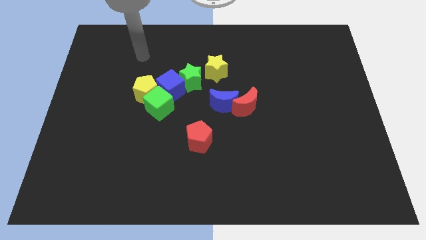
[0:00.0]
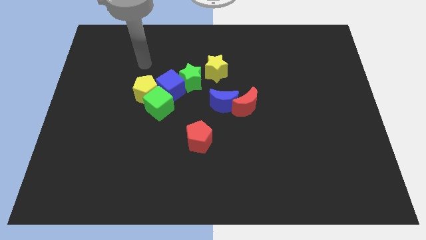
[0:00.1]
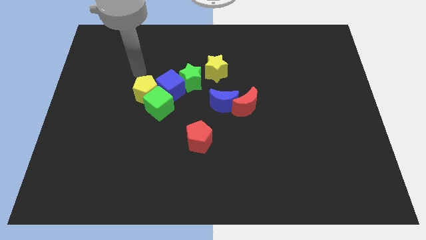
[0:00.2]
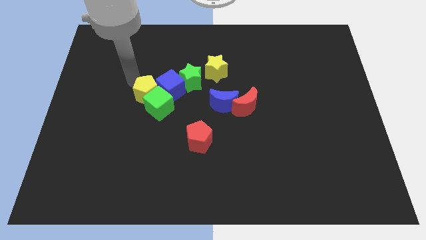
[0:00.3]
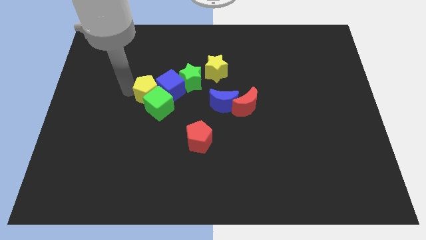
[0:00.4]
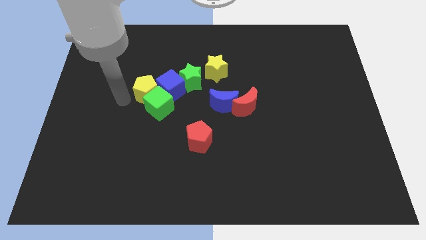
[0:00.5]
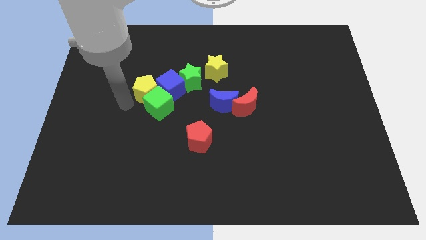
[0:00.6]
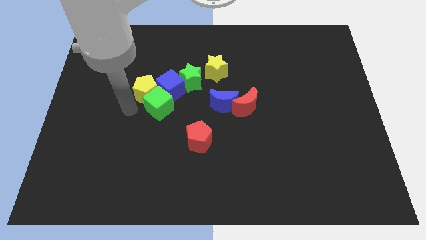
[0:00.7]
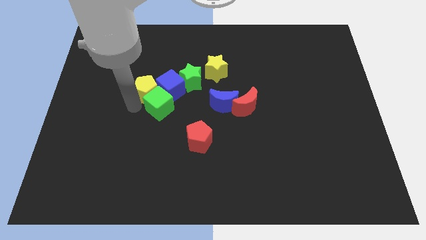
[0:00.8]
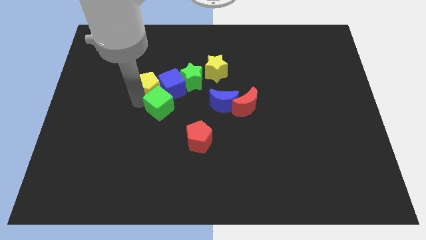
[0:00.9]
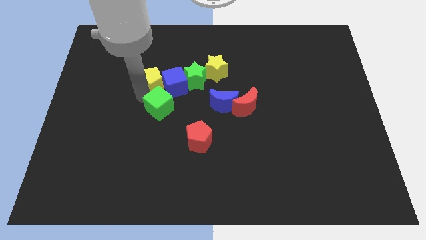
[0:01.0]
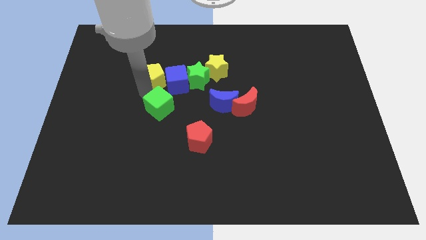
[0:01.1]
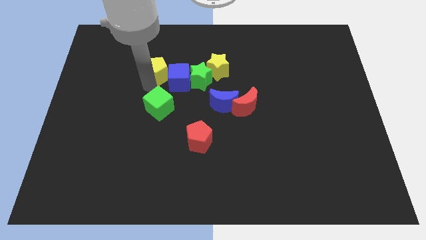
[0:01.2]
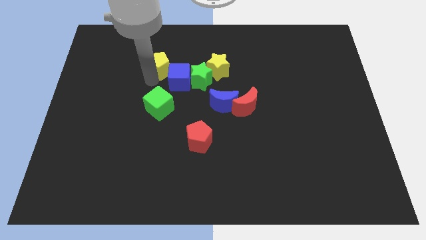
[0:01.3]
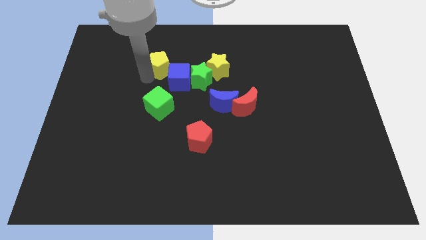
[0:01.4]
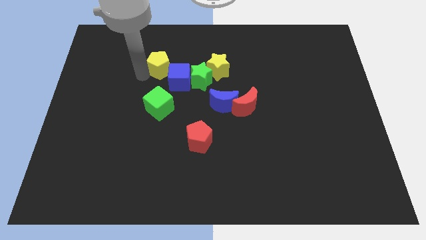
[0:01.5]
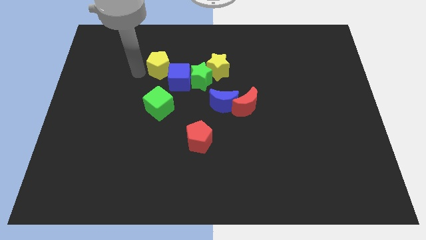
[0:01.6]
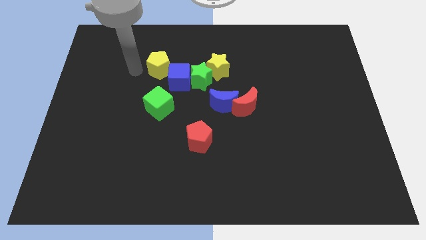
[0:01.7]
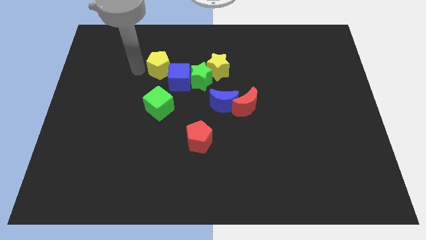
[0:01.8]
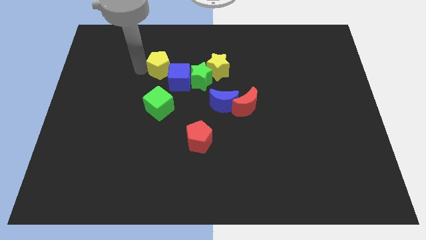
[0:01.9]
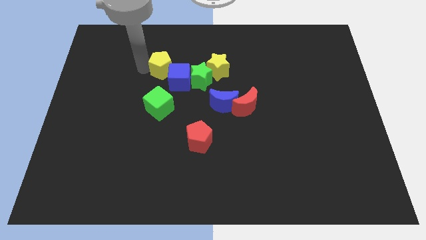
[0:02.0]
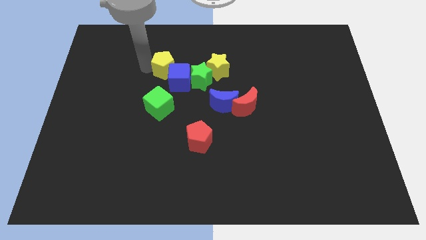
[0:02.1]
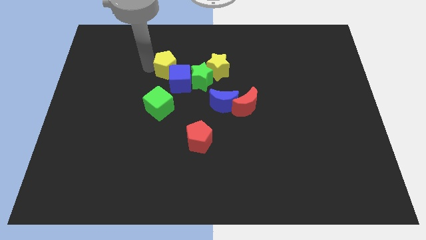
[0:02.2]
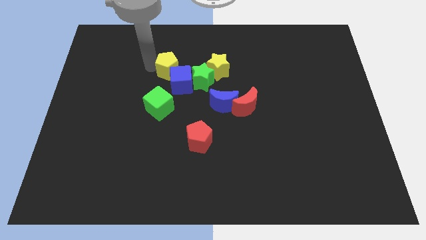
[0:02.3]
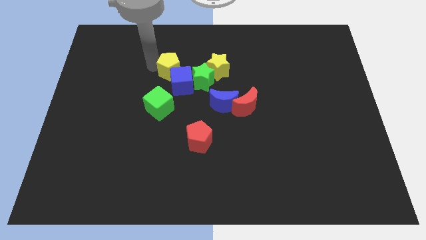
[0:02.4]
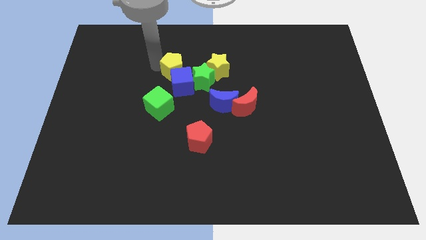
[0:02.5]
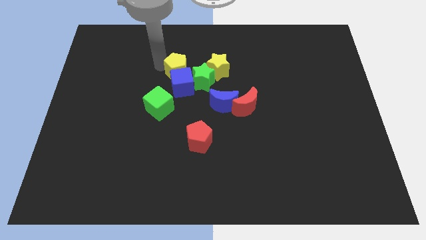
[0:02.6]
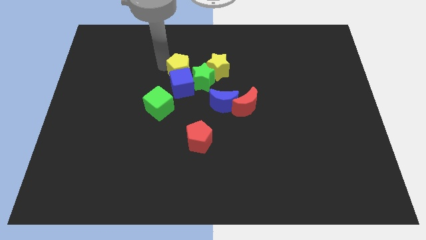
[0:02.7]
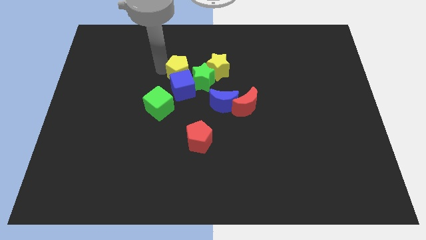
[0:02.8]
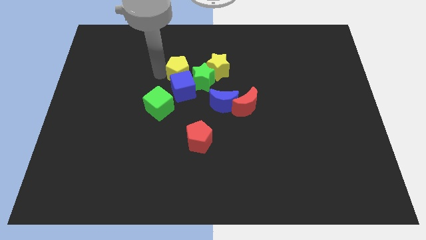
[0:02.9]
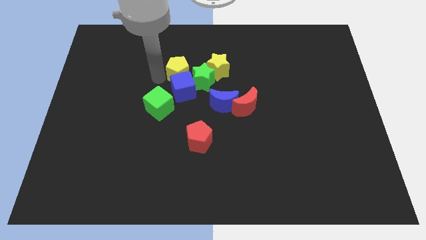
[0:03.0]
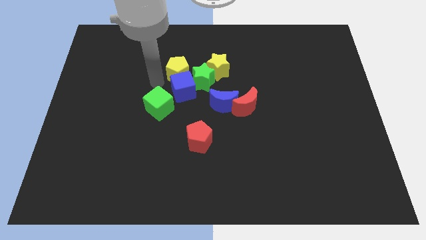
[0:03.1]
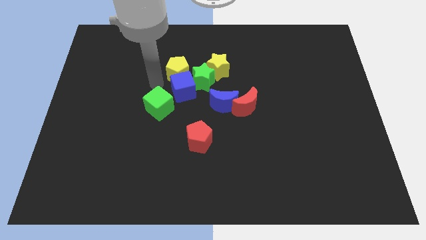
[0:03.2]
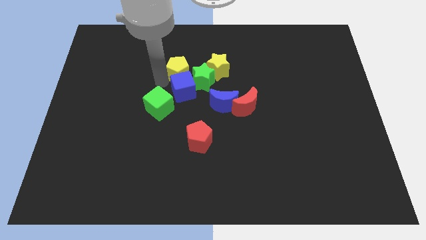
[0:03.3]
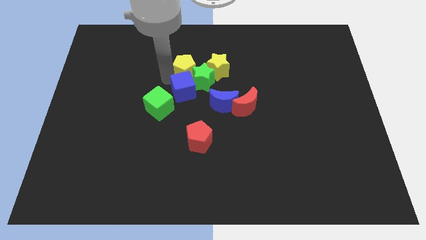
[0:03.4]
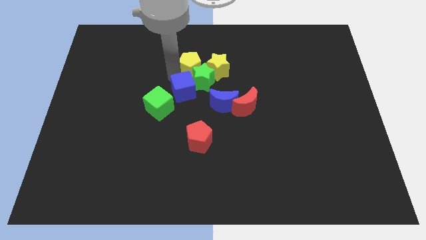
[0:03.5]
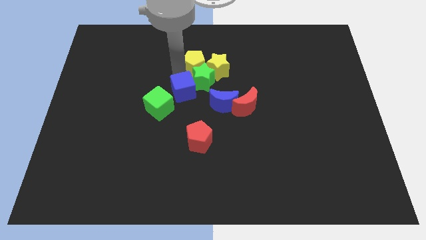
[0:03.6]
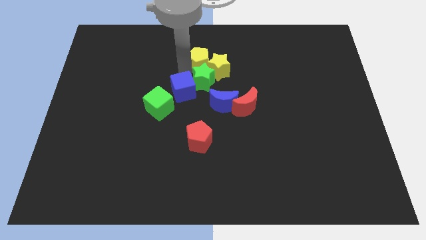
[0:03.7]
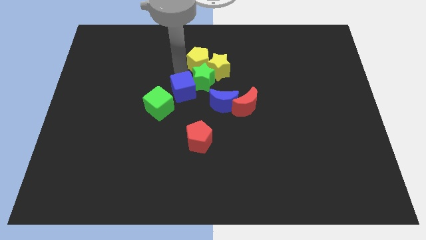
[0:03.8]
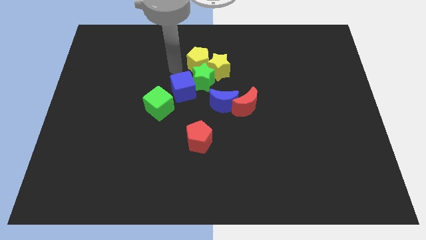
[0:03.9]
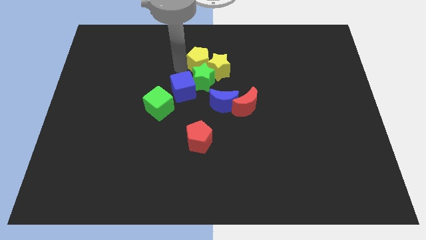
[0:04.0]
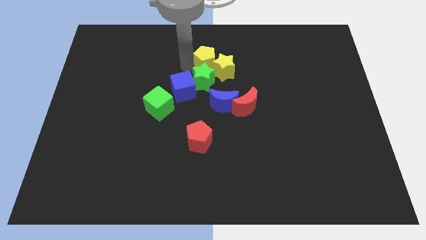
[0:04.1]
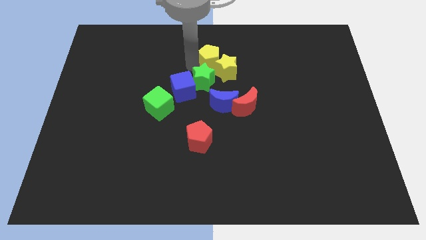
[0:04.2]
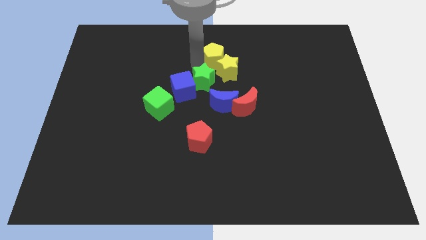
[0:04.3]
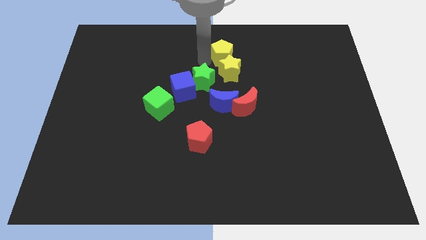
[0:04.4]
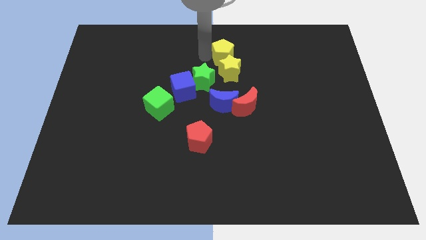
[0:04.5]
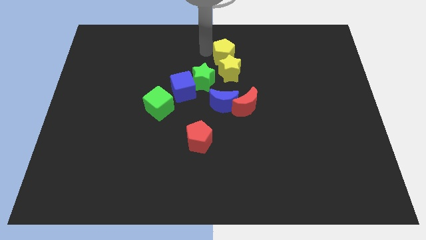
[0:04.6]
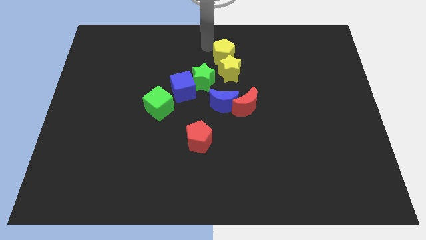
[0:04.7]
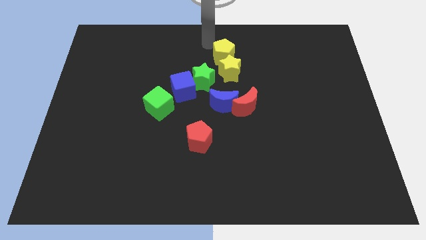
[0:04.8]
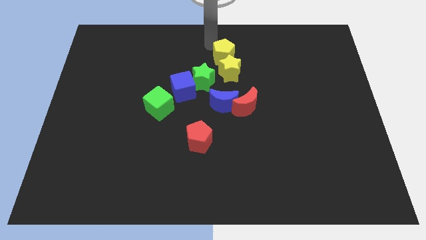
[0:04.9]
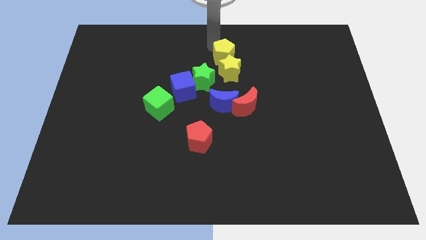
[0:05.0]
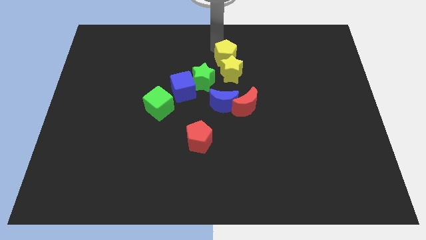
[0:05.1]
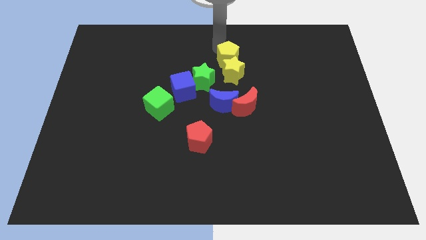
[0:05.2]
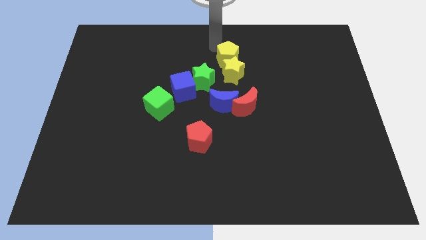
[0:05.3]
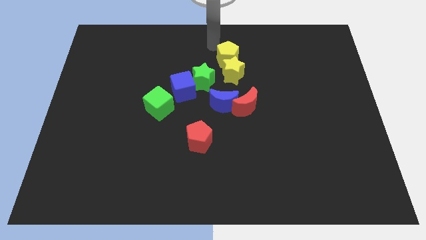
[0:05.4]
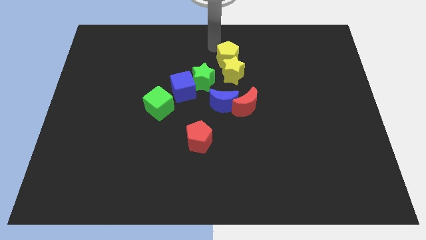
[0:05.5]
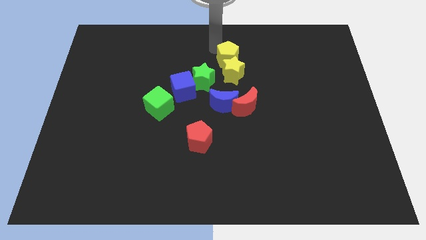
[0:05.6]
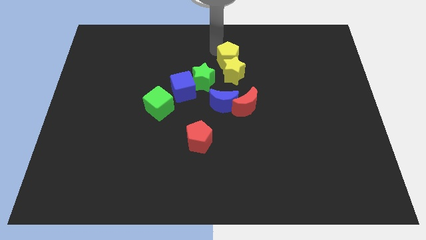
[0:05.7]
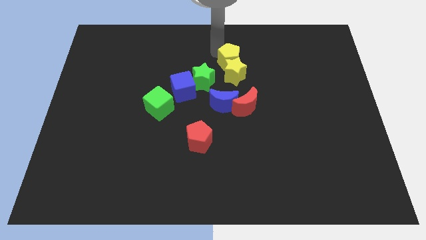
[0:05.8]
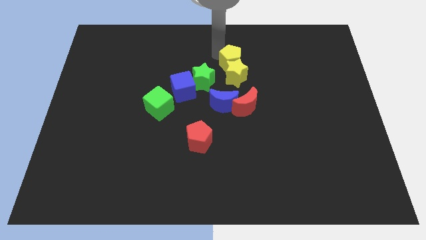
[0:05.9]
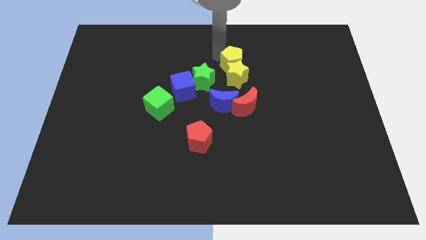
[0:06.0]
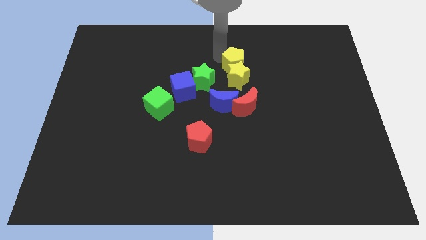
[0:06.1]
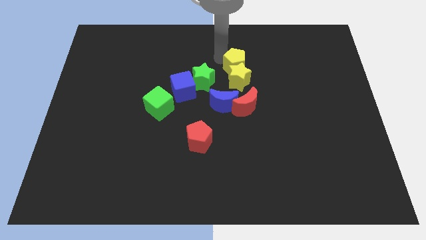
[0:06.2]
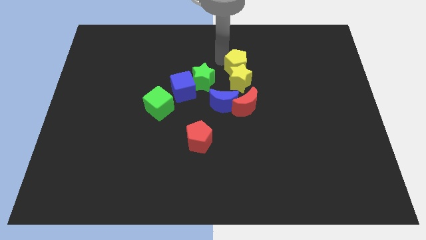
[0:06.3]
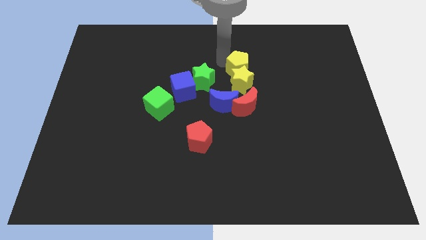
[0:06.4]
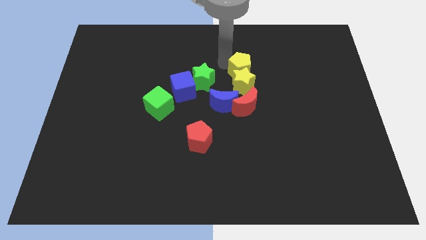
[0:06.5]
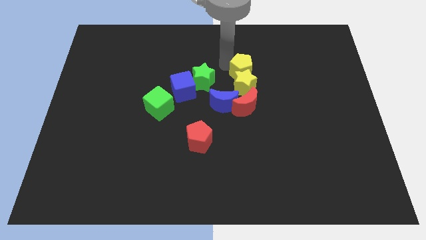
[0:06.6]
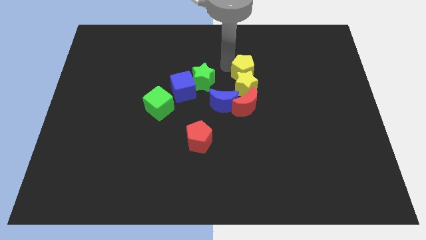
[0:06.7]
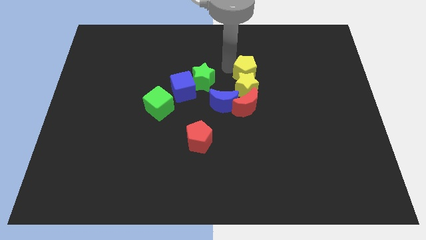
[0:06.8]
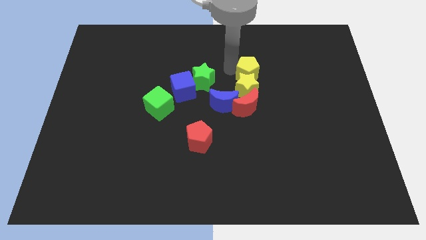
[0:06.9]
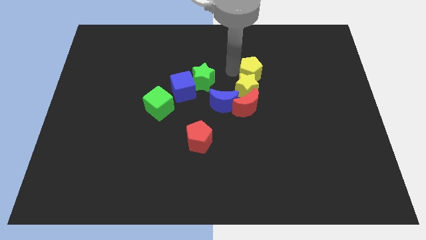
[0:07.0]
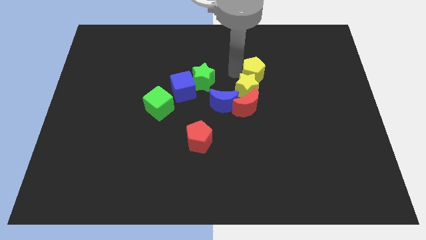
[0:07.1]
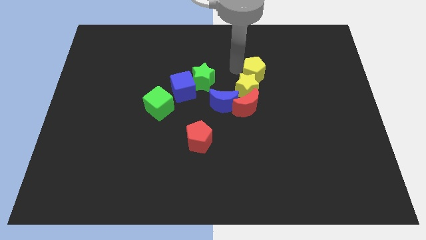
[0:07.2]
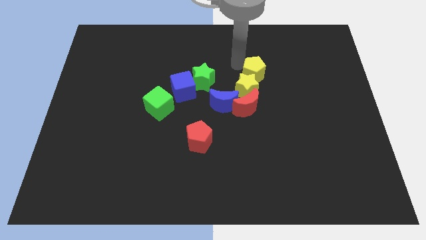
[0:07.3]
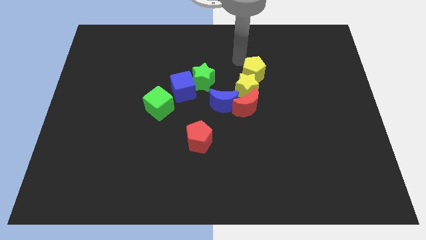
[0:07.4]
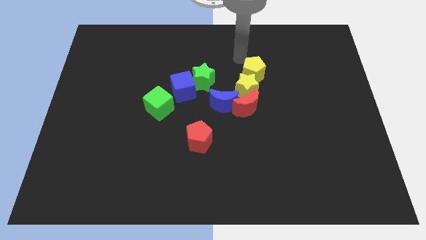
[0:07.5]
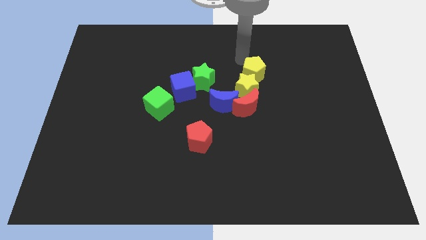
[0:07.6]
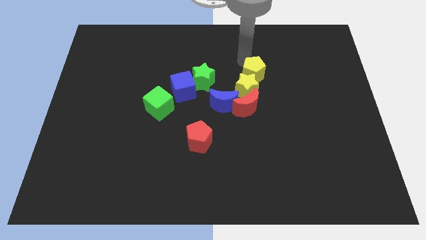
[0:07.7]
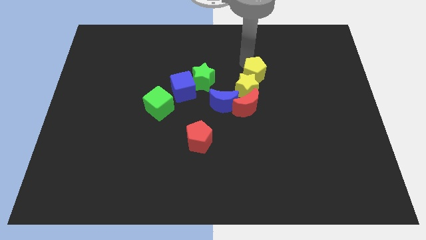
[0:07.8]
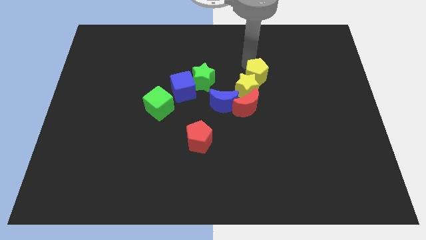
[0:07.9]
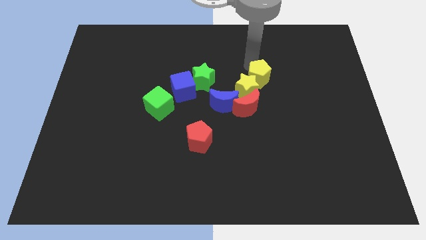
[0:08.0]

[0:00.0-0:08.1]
push the yellow pentagon to the top right side of the red moon

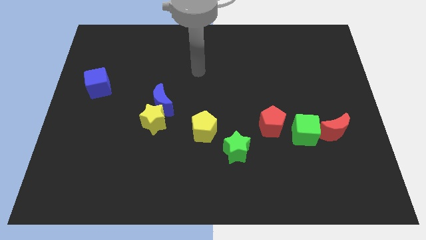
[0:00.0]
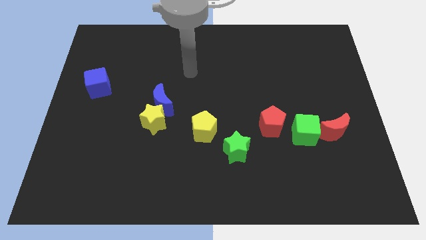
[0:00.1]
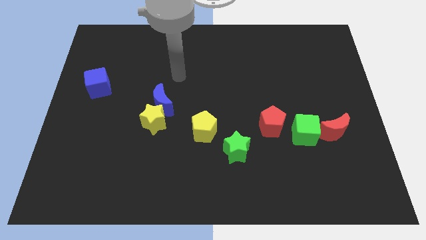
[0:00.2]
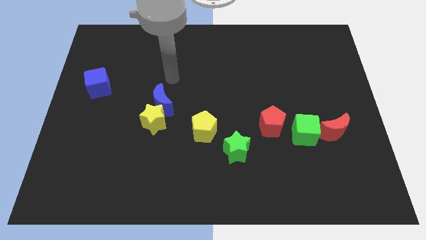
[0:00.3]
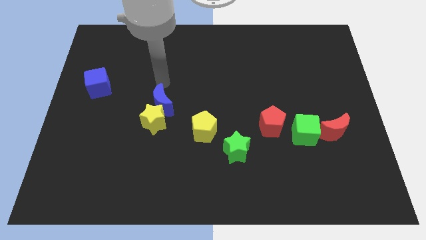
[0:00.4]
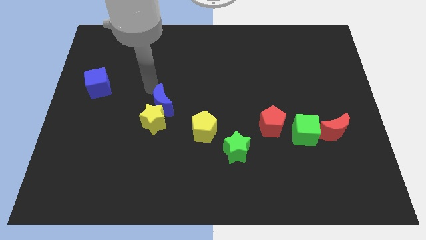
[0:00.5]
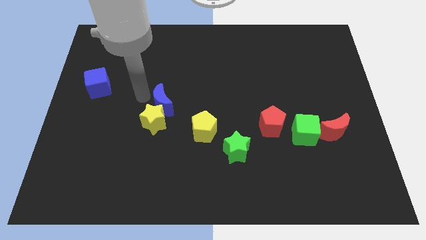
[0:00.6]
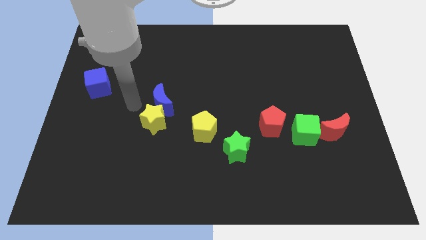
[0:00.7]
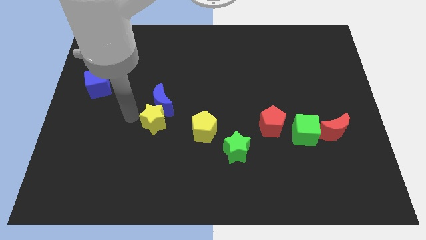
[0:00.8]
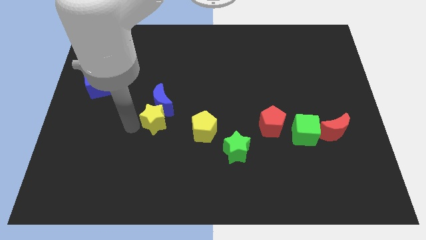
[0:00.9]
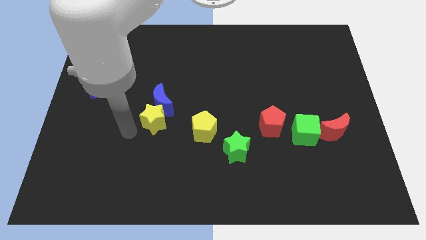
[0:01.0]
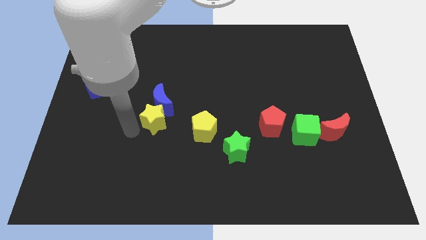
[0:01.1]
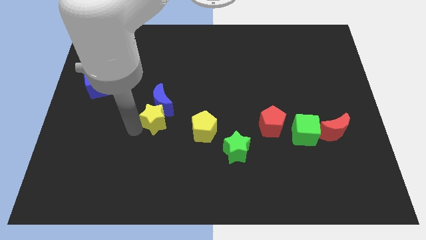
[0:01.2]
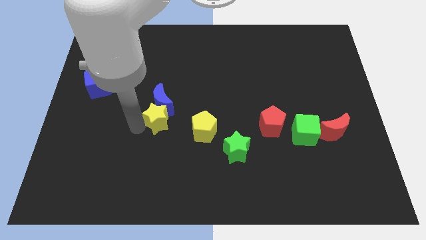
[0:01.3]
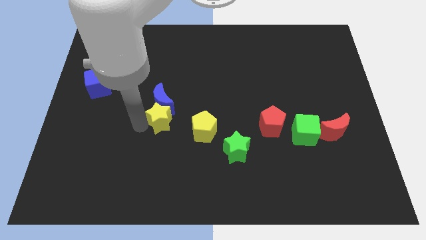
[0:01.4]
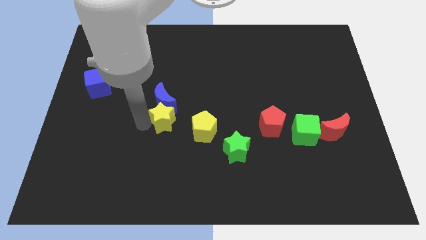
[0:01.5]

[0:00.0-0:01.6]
move the yellow star diagonally up and to the left of the yellow pentagon
